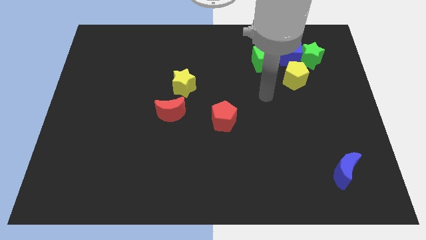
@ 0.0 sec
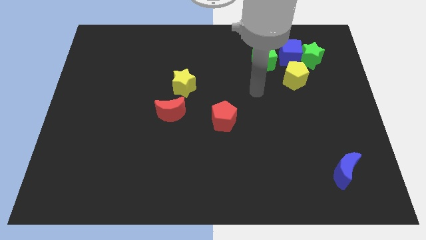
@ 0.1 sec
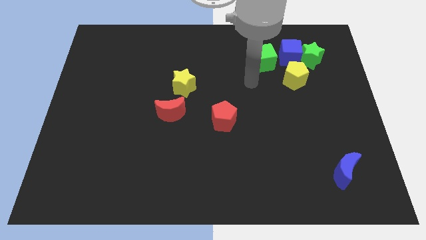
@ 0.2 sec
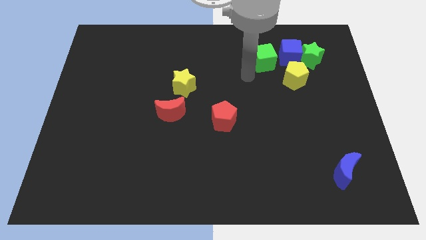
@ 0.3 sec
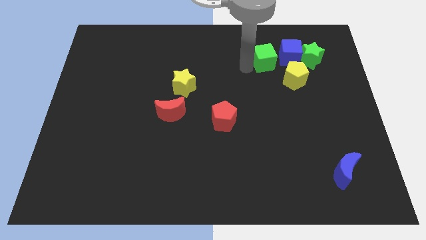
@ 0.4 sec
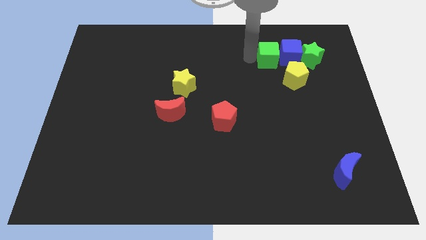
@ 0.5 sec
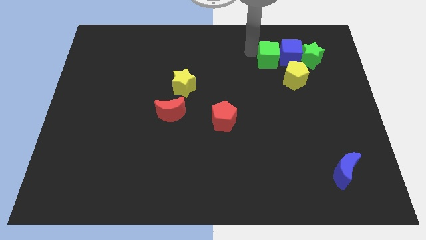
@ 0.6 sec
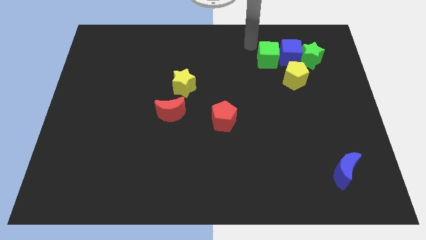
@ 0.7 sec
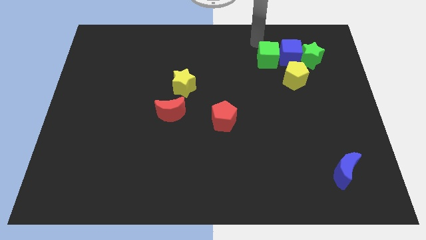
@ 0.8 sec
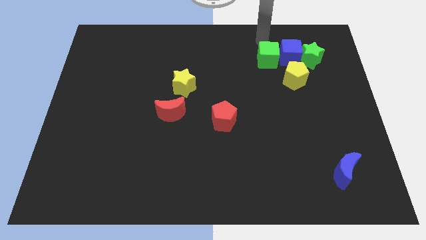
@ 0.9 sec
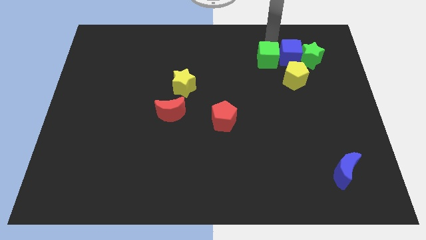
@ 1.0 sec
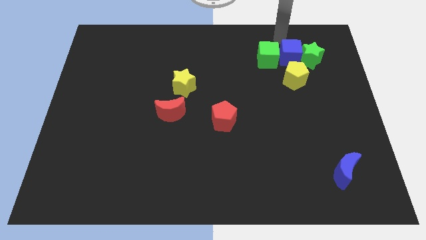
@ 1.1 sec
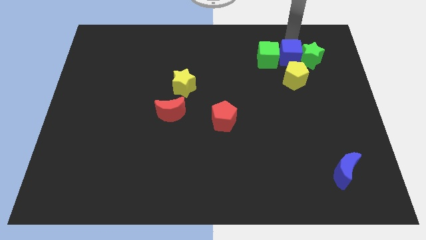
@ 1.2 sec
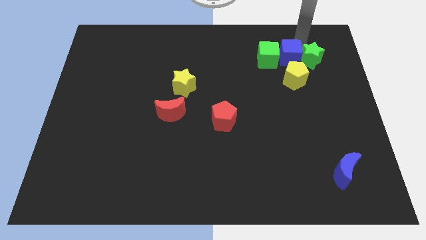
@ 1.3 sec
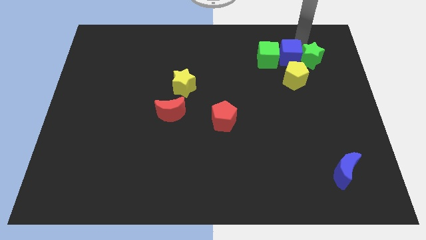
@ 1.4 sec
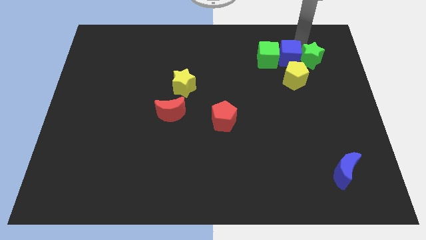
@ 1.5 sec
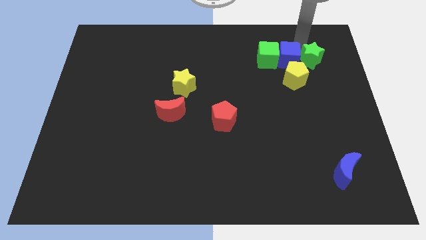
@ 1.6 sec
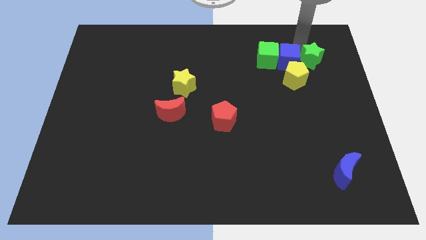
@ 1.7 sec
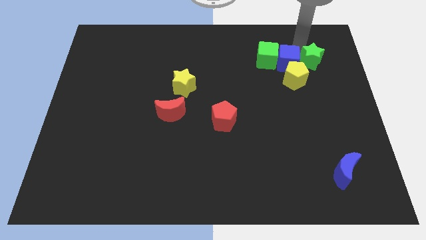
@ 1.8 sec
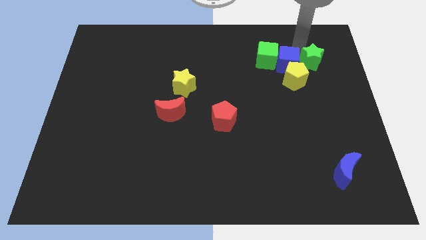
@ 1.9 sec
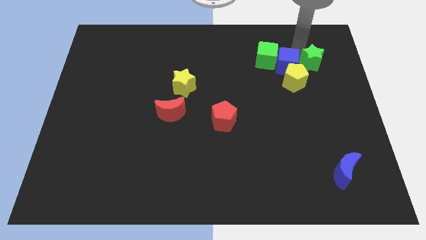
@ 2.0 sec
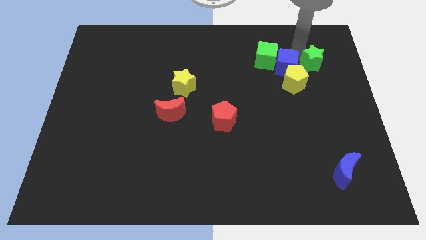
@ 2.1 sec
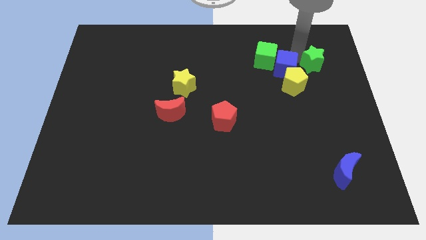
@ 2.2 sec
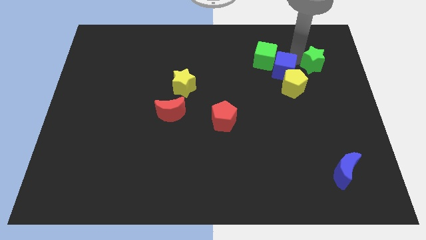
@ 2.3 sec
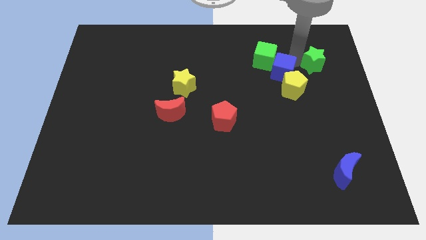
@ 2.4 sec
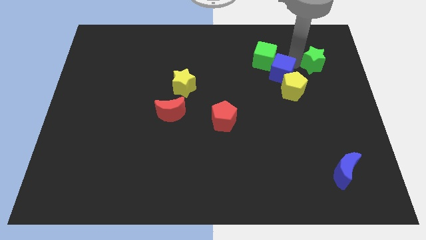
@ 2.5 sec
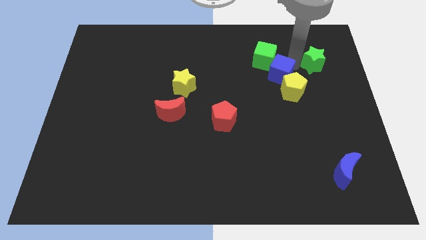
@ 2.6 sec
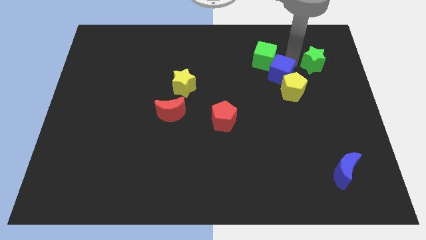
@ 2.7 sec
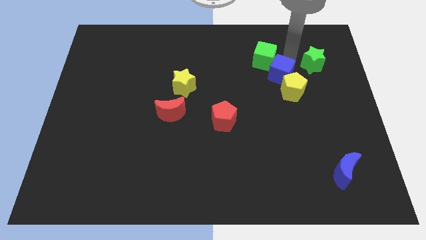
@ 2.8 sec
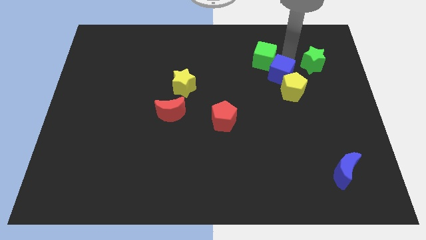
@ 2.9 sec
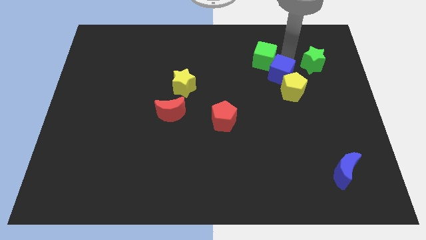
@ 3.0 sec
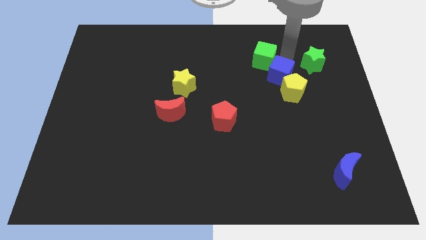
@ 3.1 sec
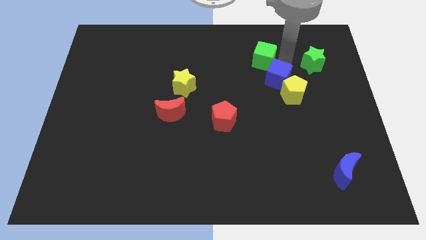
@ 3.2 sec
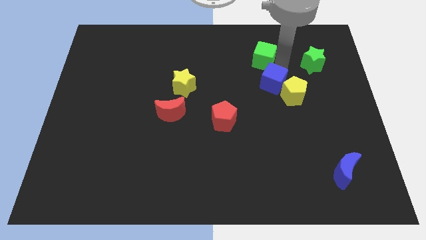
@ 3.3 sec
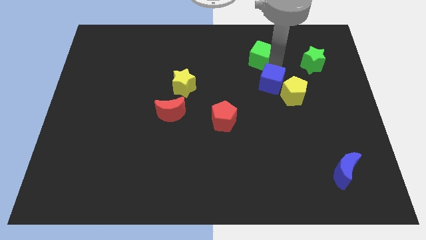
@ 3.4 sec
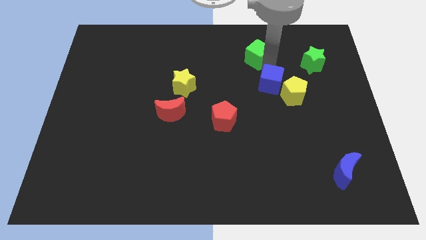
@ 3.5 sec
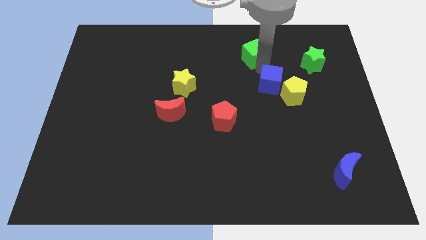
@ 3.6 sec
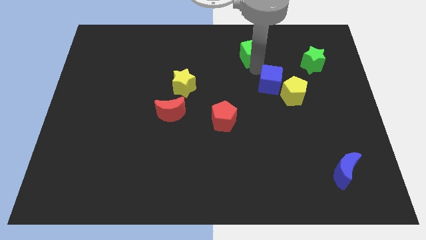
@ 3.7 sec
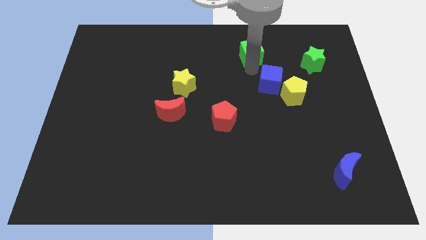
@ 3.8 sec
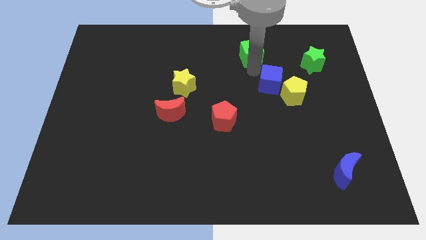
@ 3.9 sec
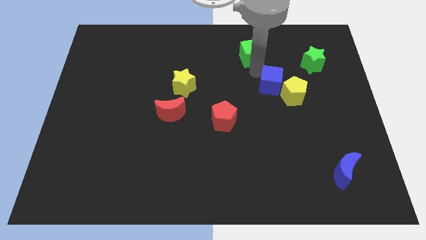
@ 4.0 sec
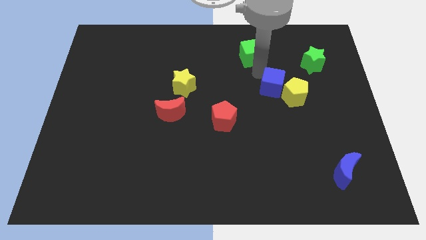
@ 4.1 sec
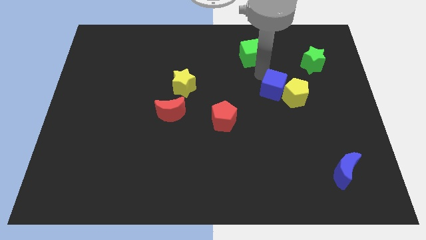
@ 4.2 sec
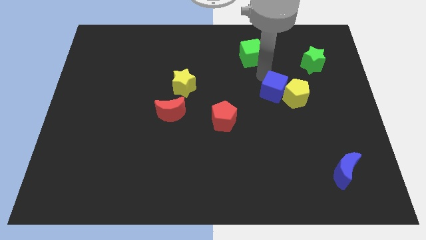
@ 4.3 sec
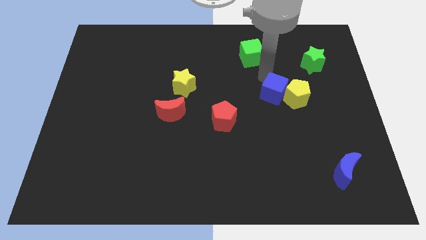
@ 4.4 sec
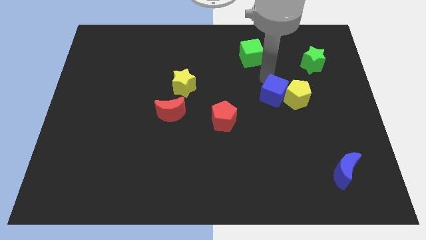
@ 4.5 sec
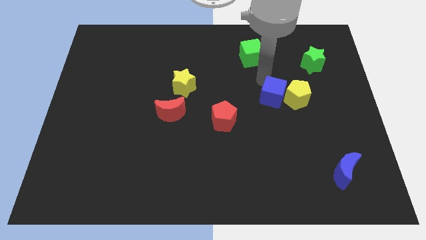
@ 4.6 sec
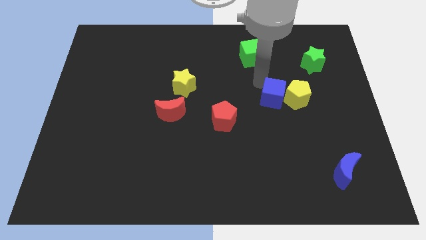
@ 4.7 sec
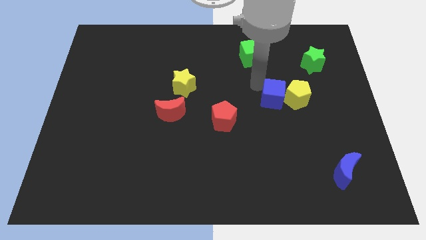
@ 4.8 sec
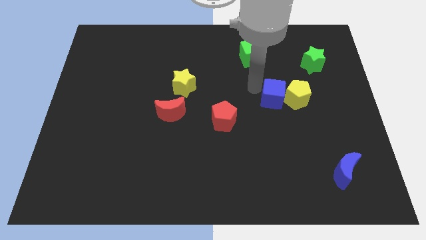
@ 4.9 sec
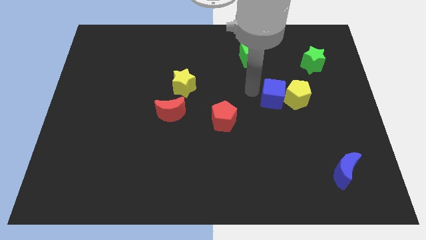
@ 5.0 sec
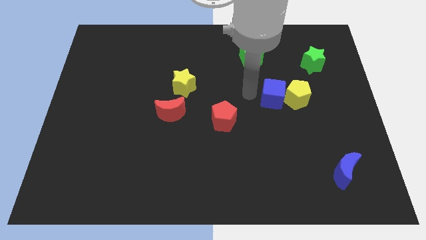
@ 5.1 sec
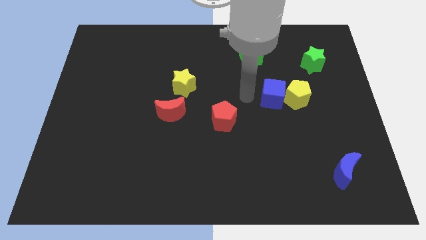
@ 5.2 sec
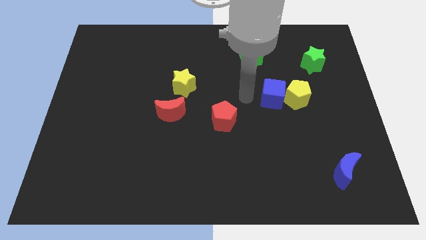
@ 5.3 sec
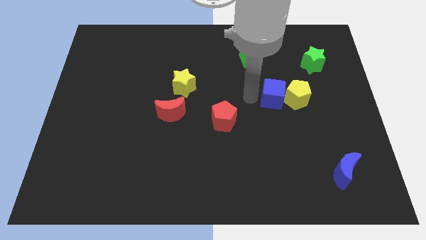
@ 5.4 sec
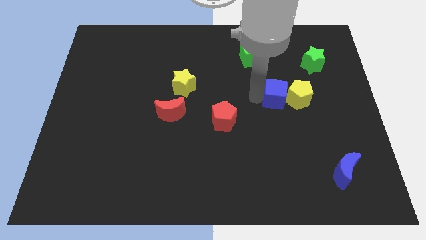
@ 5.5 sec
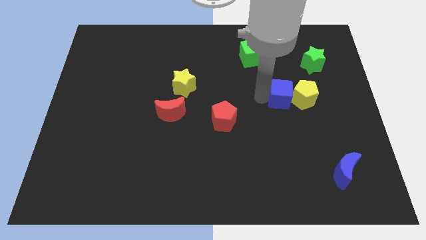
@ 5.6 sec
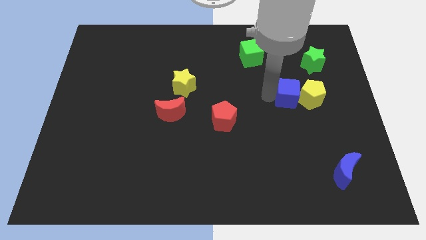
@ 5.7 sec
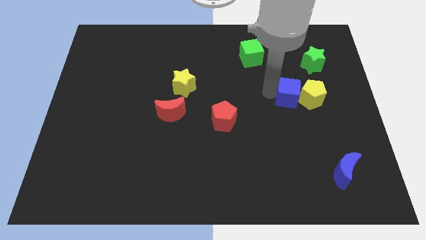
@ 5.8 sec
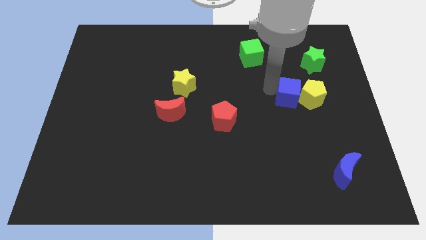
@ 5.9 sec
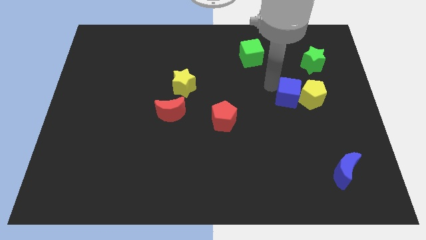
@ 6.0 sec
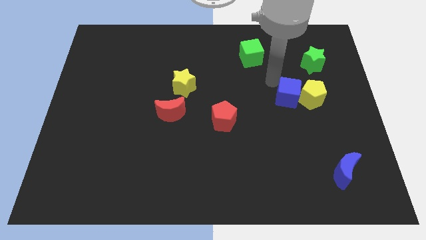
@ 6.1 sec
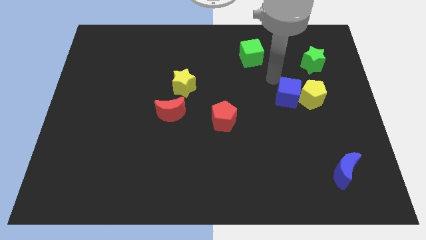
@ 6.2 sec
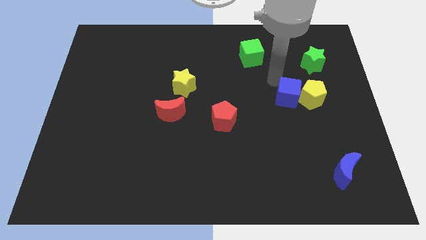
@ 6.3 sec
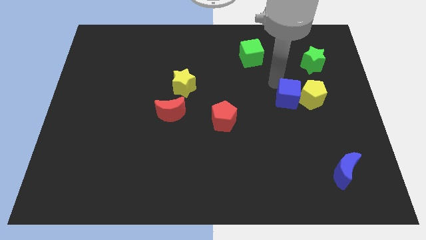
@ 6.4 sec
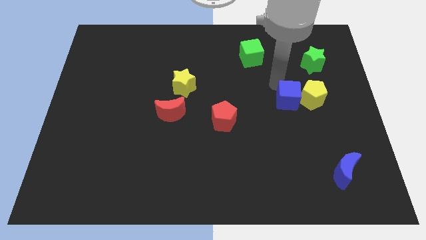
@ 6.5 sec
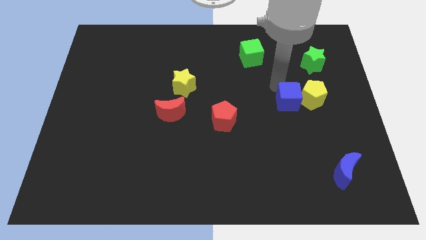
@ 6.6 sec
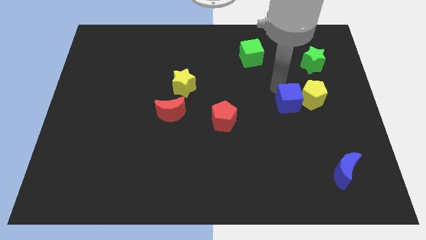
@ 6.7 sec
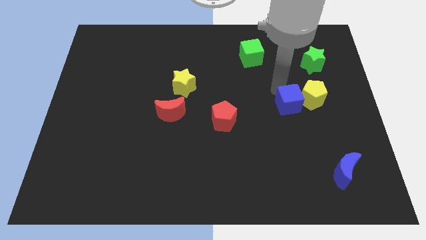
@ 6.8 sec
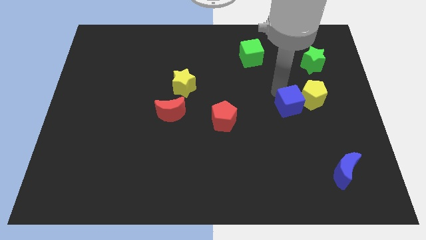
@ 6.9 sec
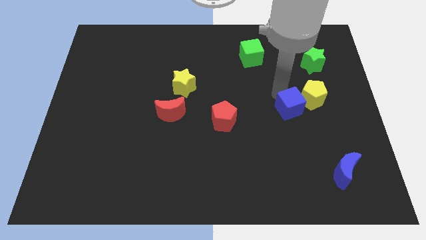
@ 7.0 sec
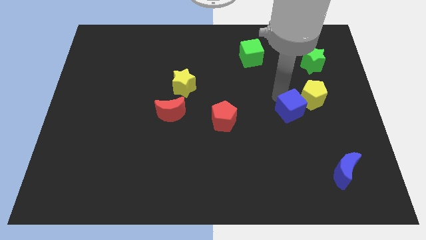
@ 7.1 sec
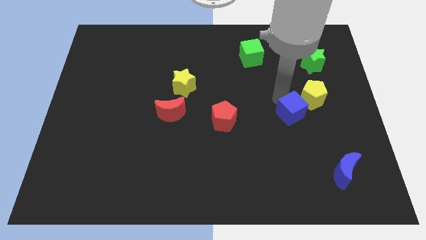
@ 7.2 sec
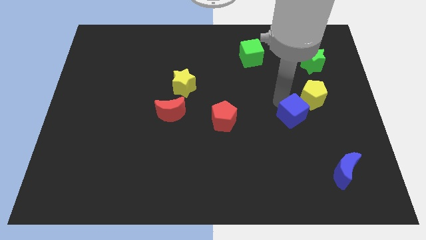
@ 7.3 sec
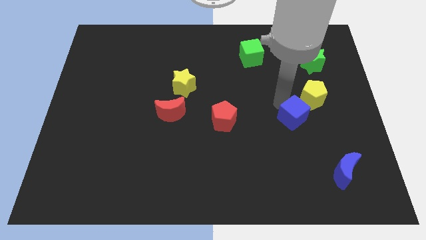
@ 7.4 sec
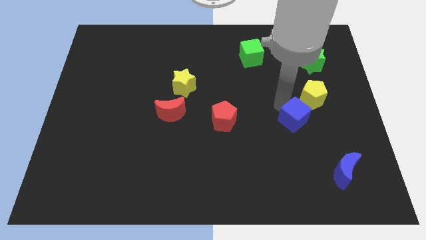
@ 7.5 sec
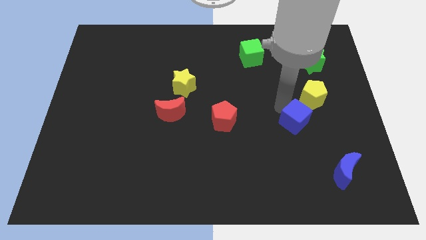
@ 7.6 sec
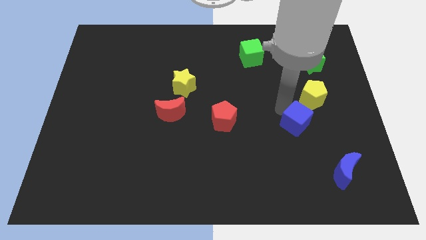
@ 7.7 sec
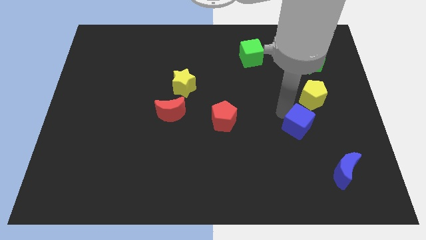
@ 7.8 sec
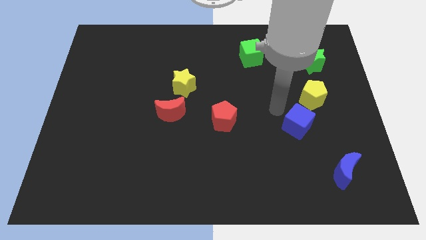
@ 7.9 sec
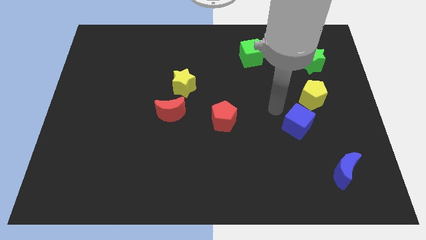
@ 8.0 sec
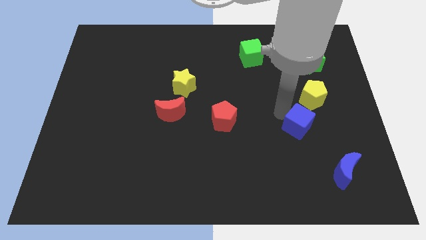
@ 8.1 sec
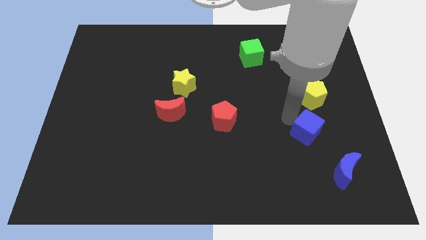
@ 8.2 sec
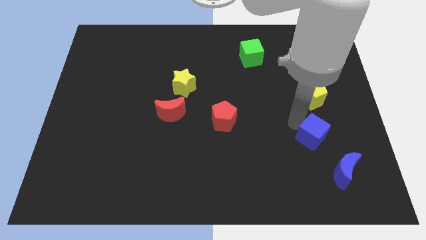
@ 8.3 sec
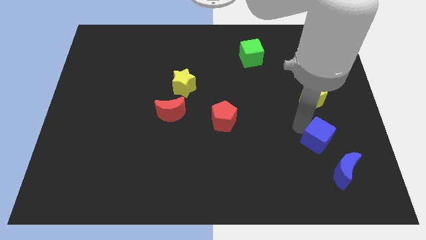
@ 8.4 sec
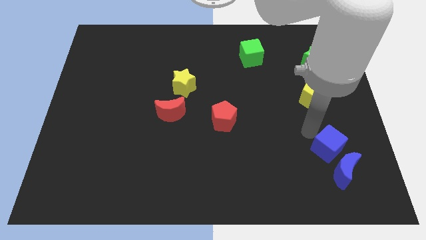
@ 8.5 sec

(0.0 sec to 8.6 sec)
slide the blue cube close to the blue moon
